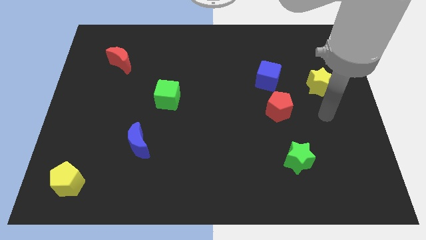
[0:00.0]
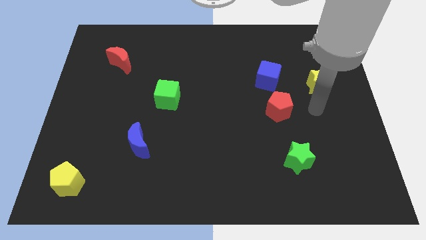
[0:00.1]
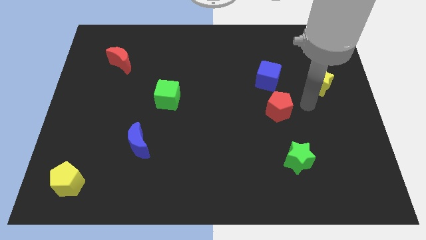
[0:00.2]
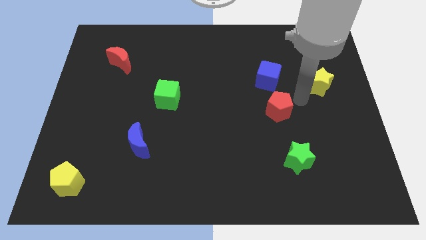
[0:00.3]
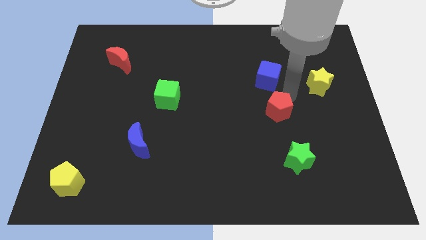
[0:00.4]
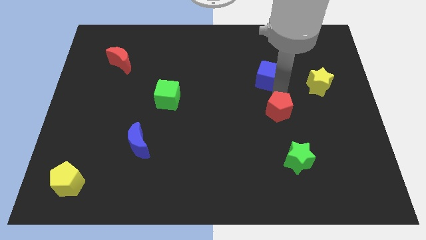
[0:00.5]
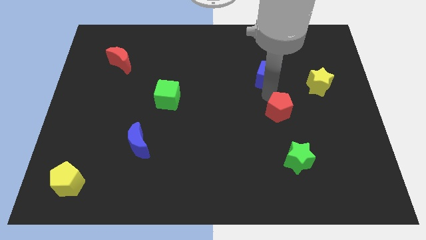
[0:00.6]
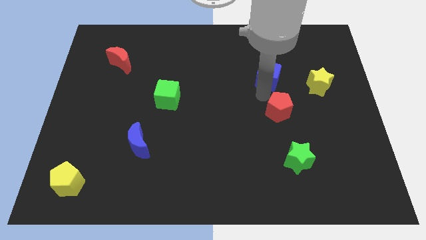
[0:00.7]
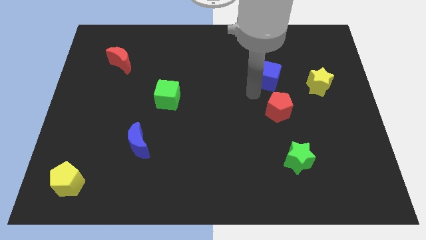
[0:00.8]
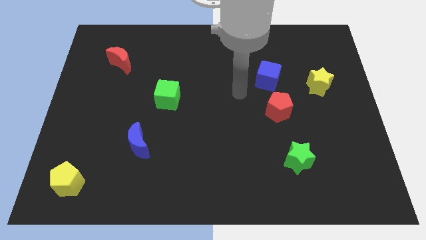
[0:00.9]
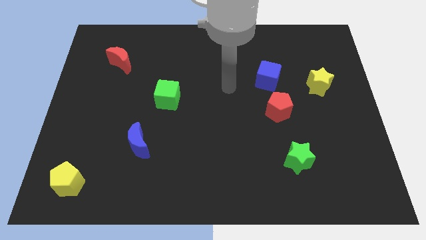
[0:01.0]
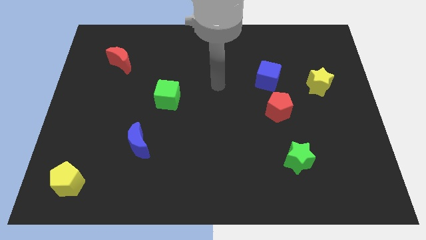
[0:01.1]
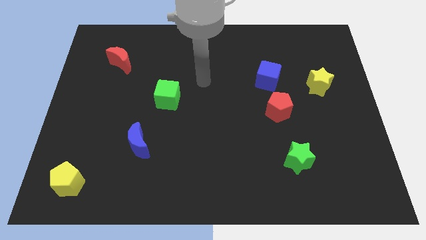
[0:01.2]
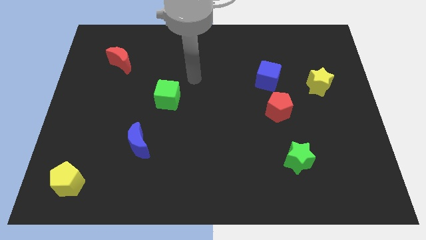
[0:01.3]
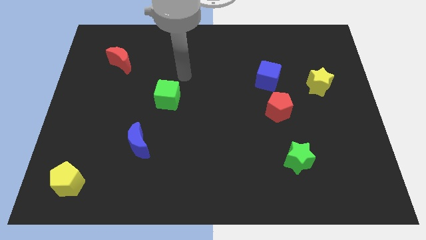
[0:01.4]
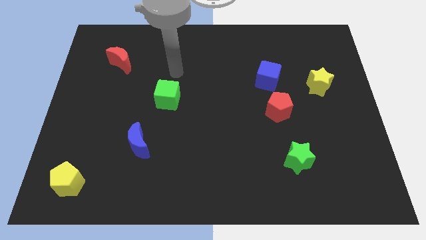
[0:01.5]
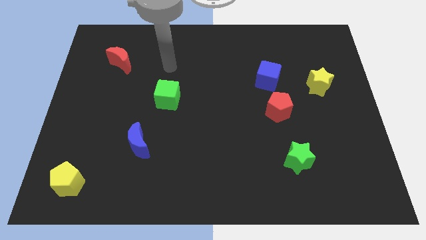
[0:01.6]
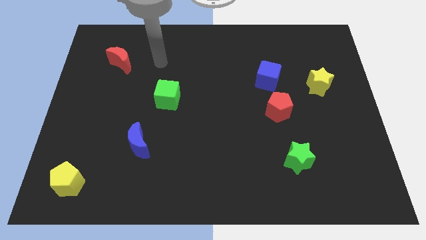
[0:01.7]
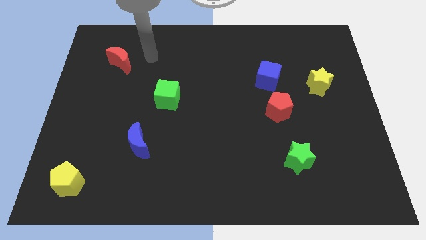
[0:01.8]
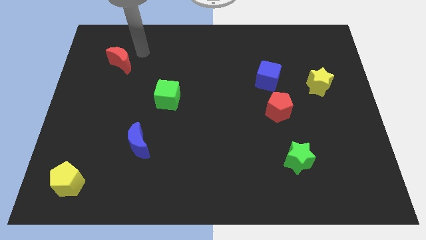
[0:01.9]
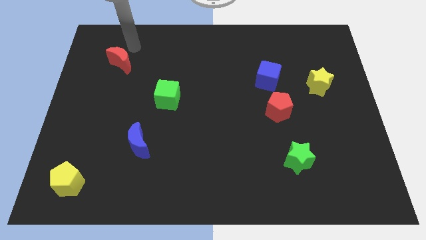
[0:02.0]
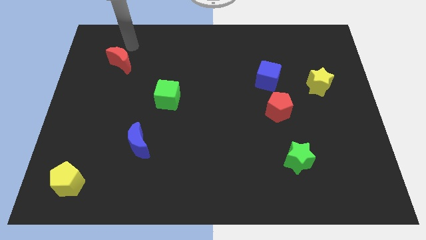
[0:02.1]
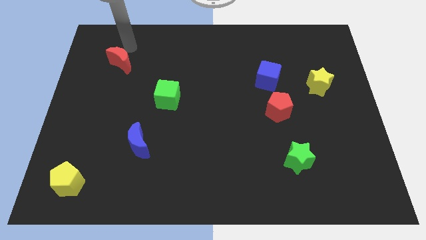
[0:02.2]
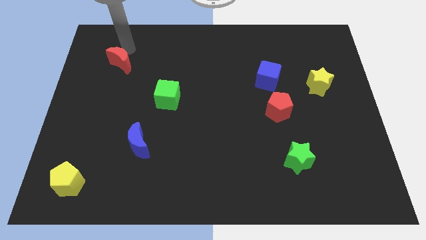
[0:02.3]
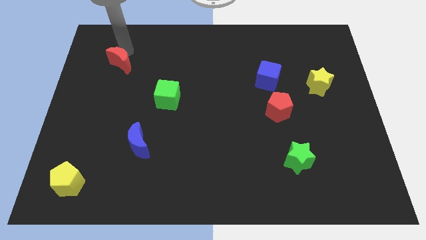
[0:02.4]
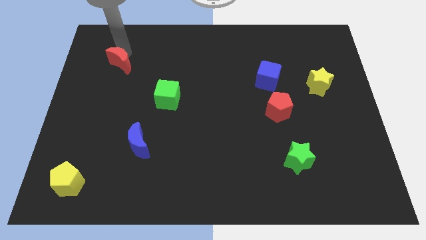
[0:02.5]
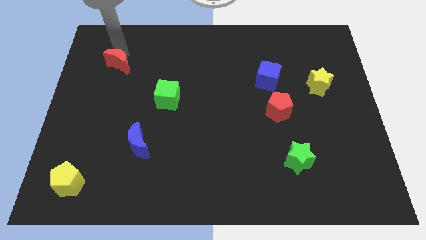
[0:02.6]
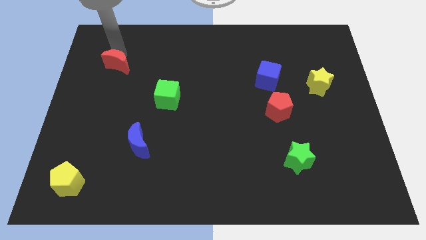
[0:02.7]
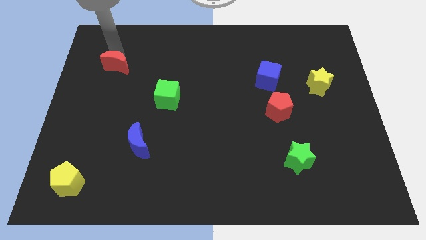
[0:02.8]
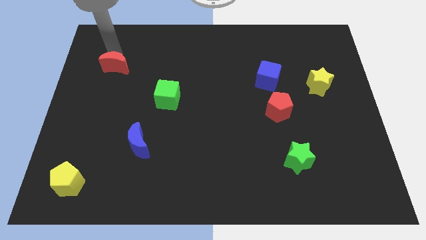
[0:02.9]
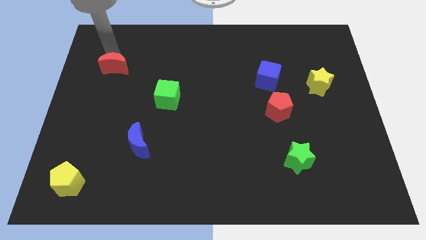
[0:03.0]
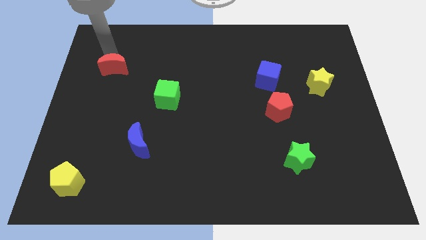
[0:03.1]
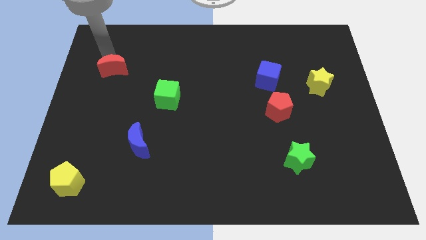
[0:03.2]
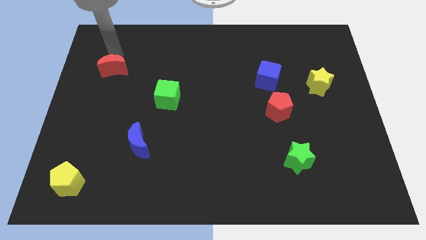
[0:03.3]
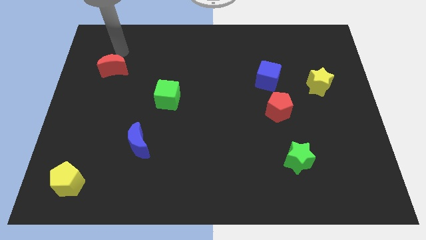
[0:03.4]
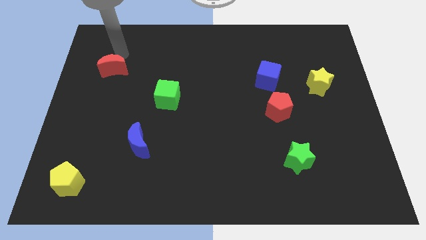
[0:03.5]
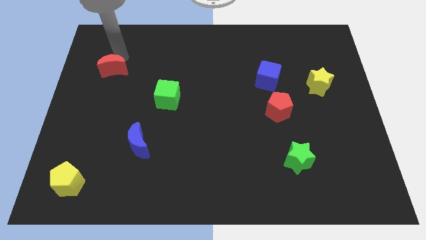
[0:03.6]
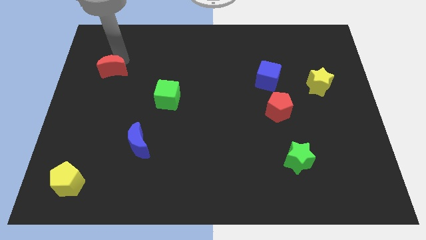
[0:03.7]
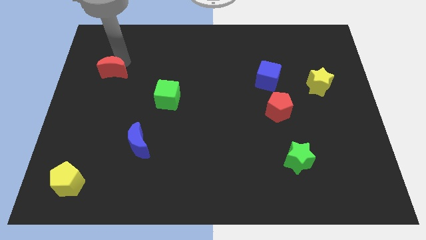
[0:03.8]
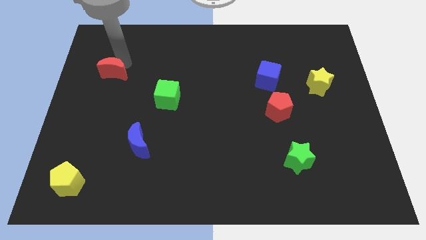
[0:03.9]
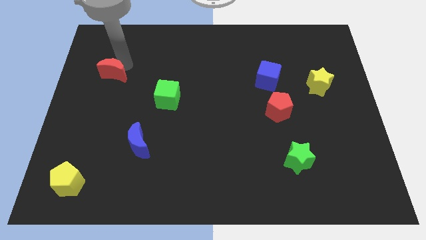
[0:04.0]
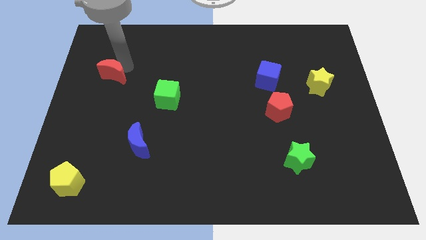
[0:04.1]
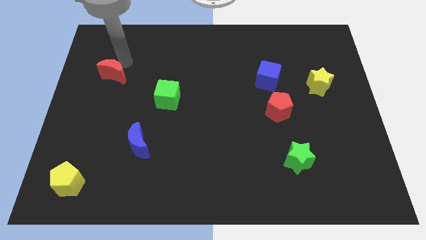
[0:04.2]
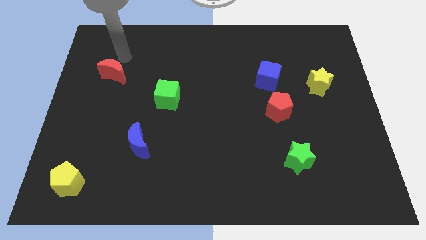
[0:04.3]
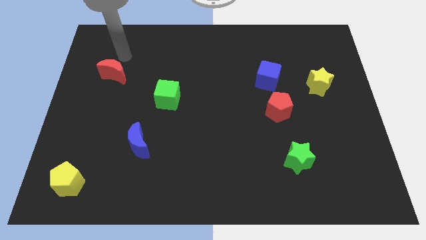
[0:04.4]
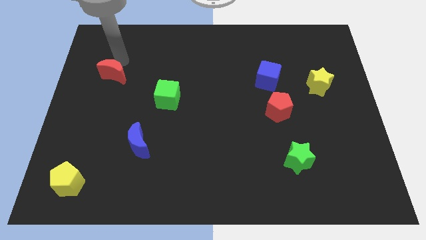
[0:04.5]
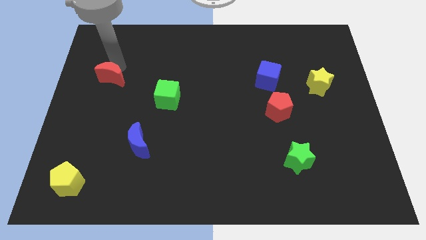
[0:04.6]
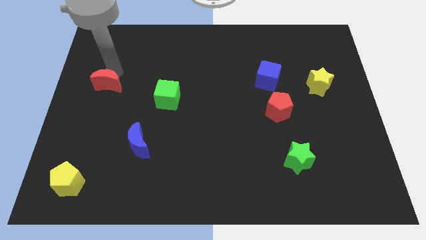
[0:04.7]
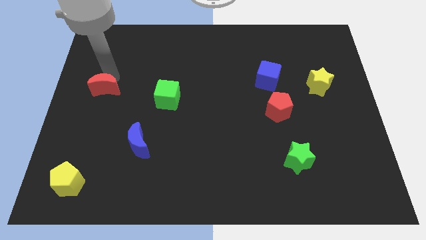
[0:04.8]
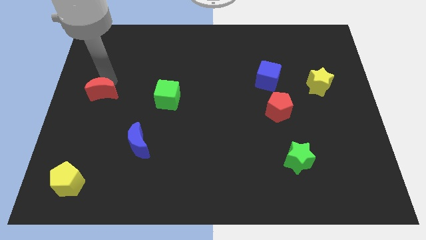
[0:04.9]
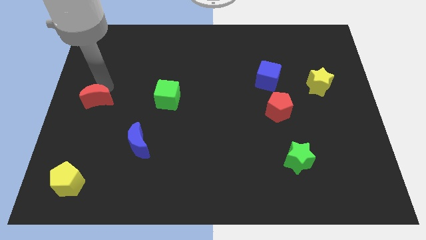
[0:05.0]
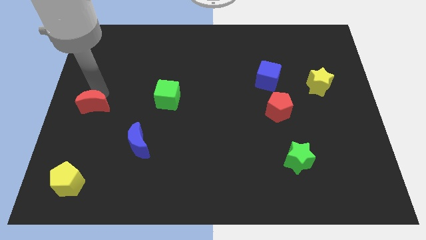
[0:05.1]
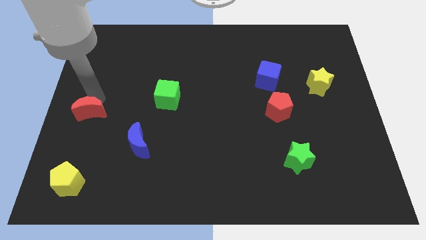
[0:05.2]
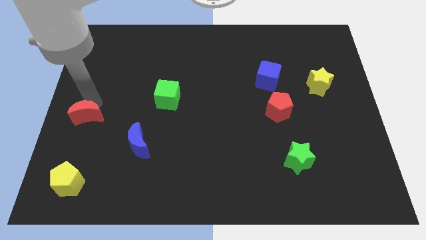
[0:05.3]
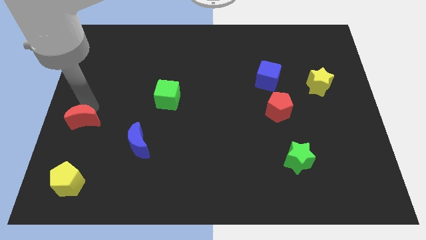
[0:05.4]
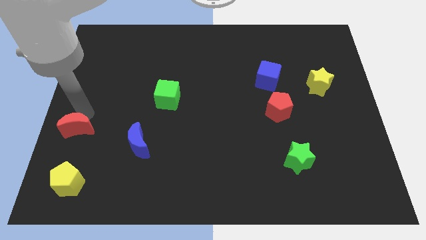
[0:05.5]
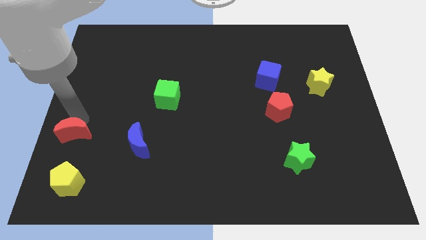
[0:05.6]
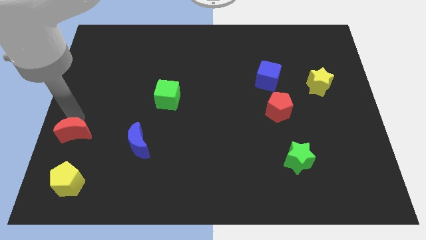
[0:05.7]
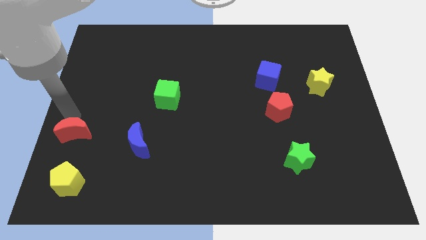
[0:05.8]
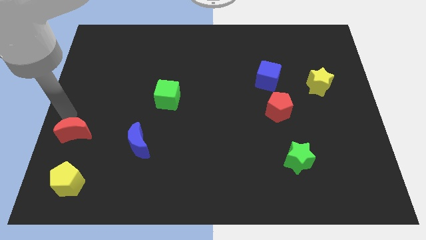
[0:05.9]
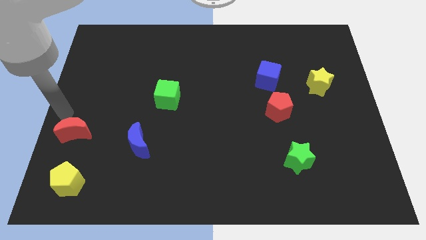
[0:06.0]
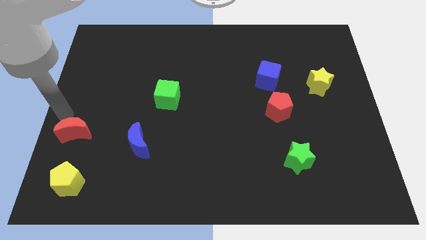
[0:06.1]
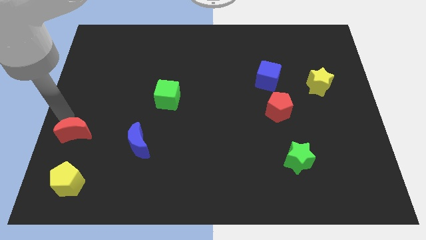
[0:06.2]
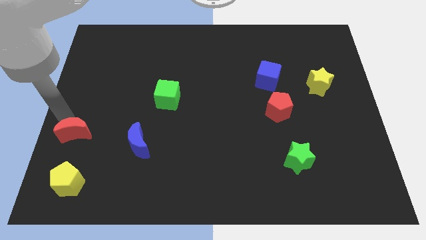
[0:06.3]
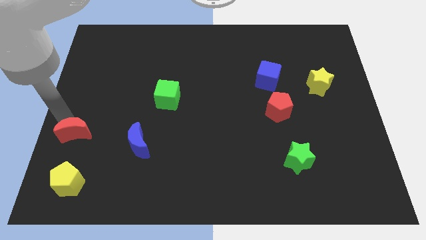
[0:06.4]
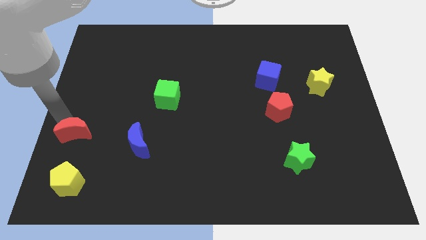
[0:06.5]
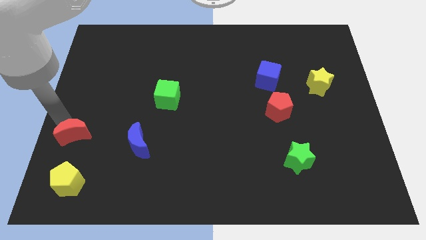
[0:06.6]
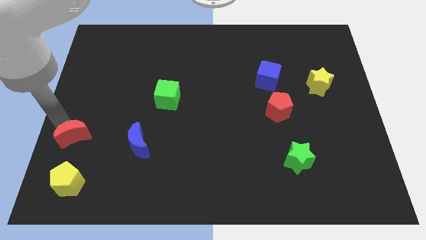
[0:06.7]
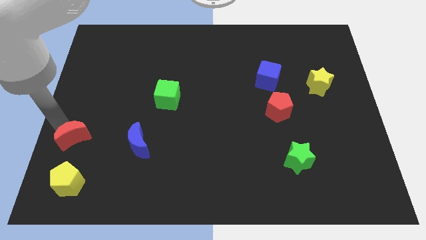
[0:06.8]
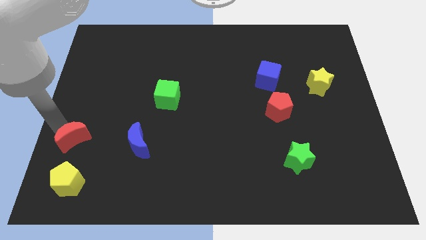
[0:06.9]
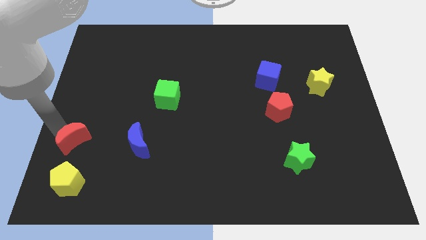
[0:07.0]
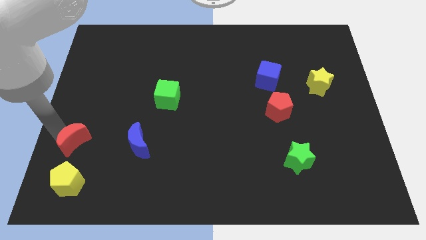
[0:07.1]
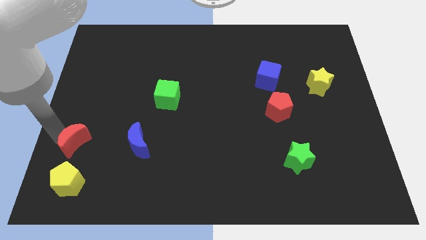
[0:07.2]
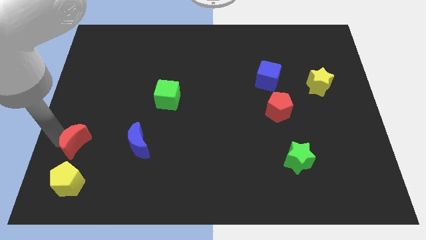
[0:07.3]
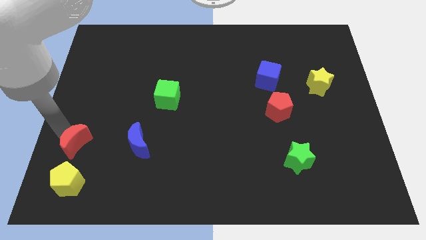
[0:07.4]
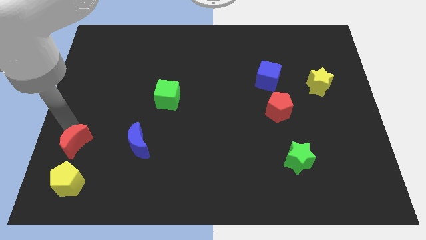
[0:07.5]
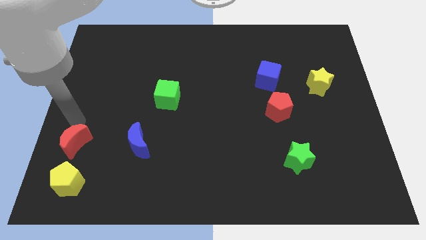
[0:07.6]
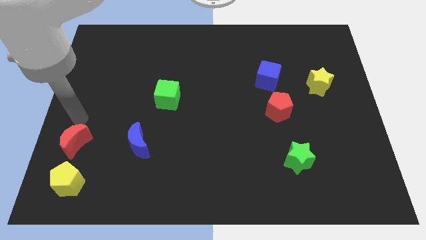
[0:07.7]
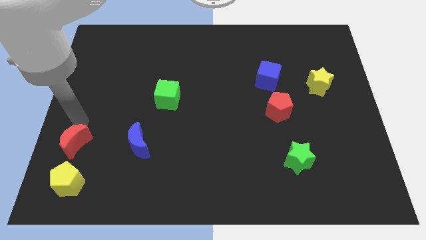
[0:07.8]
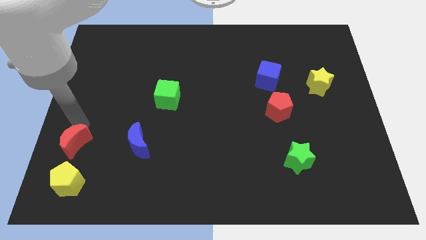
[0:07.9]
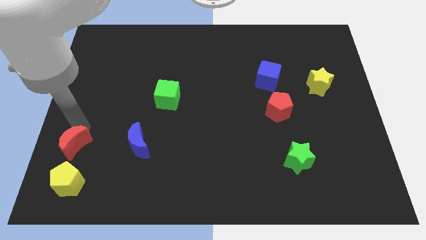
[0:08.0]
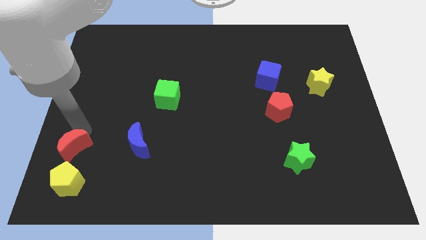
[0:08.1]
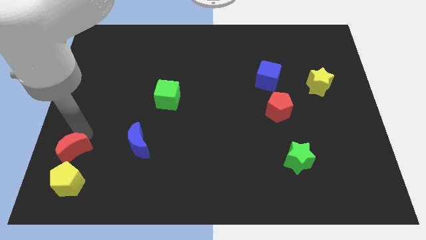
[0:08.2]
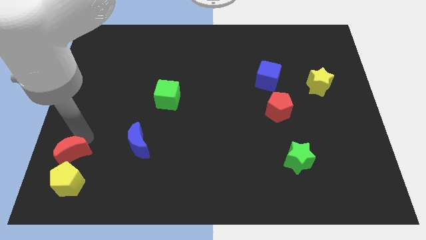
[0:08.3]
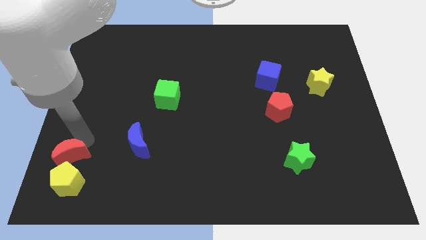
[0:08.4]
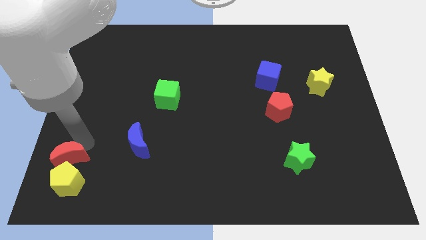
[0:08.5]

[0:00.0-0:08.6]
push the red moon next to the yellow pentagon
